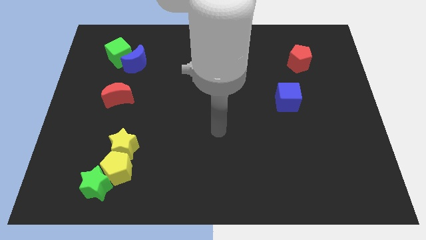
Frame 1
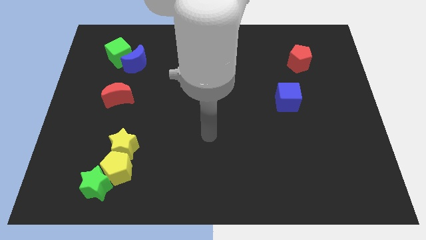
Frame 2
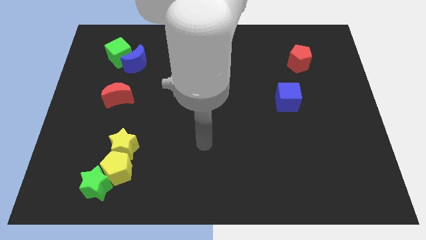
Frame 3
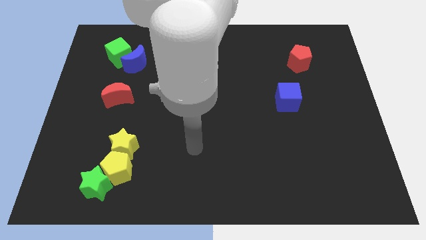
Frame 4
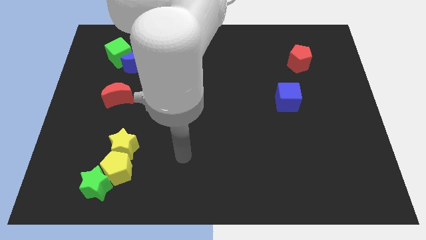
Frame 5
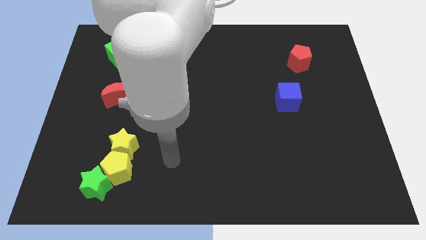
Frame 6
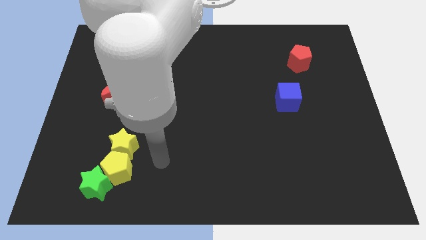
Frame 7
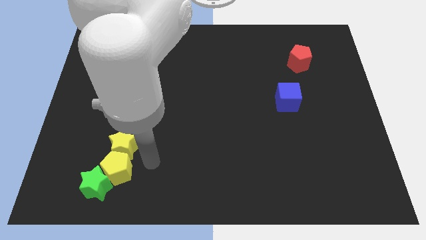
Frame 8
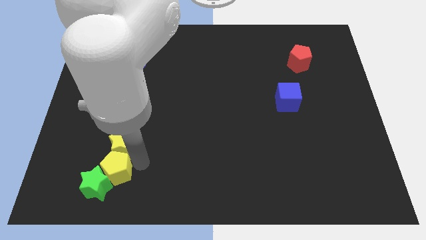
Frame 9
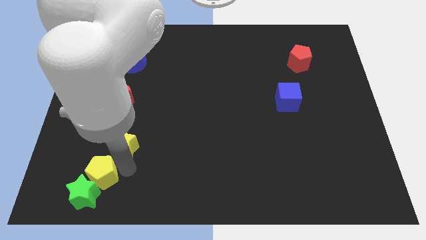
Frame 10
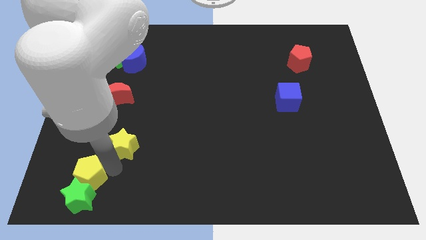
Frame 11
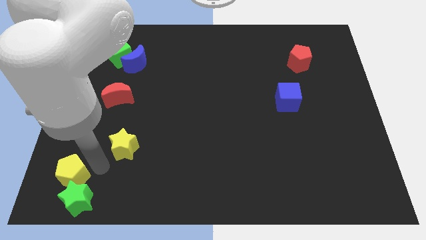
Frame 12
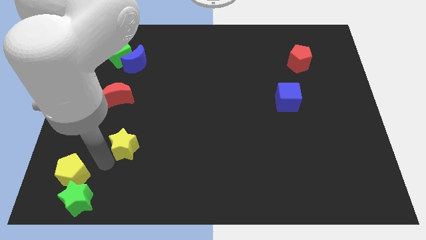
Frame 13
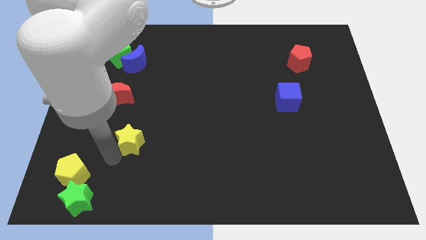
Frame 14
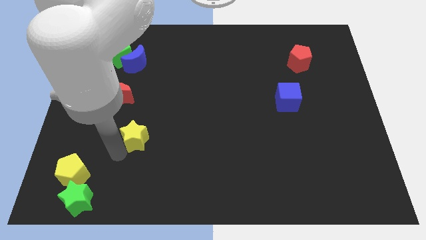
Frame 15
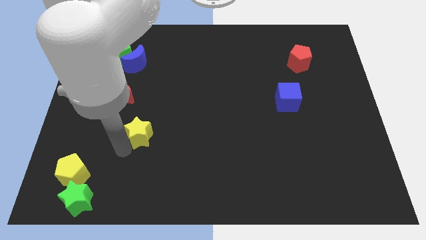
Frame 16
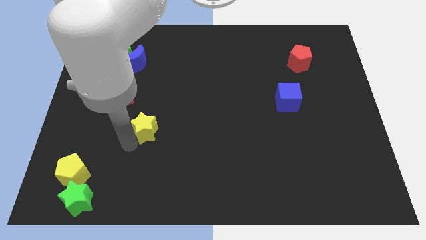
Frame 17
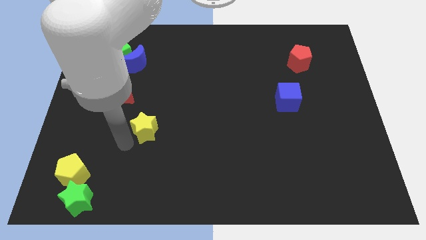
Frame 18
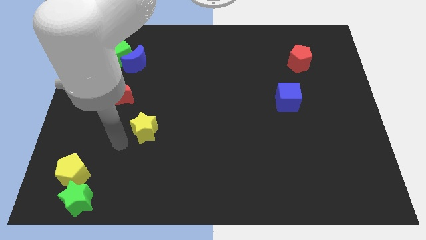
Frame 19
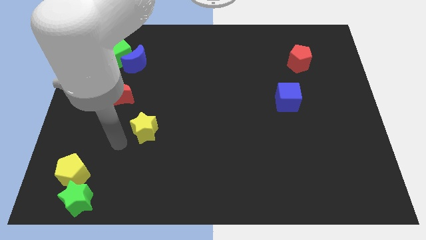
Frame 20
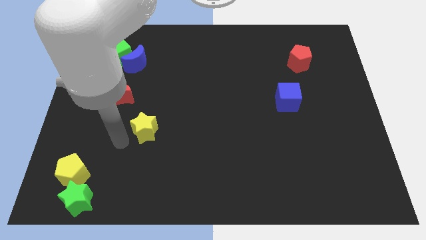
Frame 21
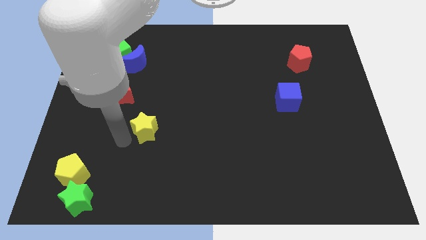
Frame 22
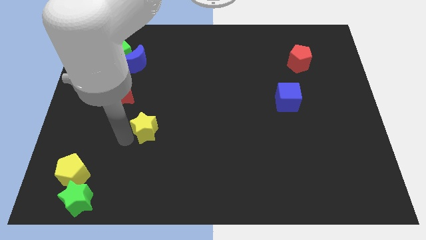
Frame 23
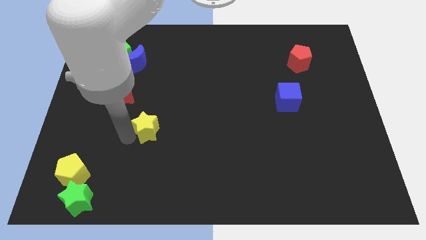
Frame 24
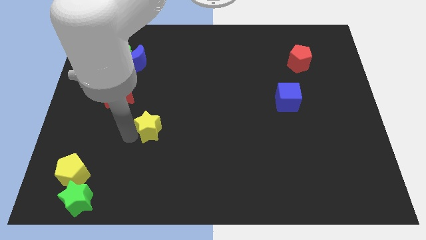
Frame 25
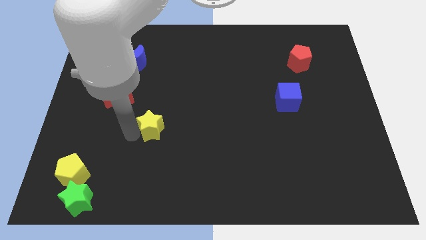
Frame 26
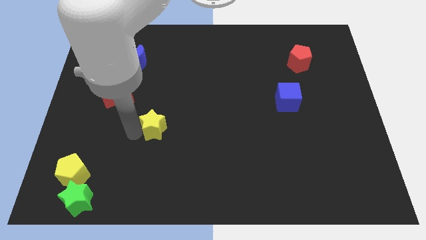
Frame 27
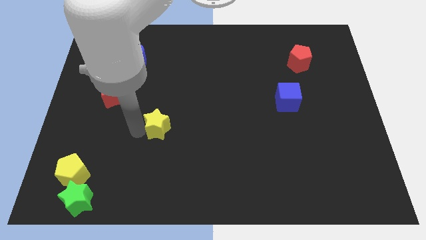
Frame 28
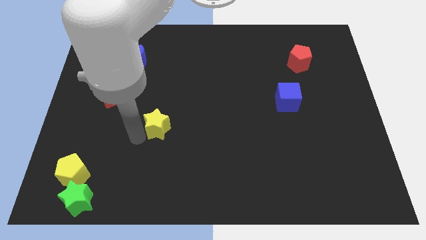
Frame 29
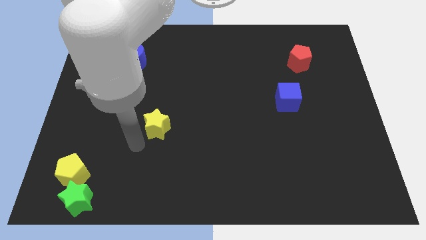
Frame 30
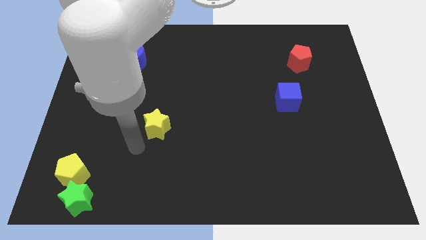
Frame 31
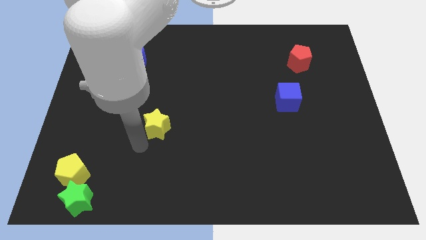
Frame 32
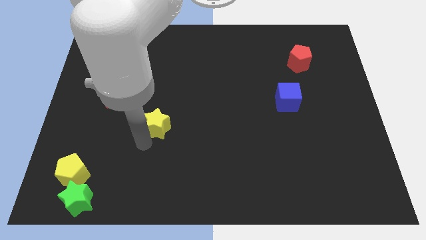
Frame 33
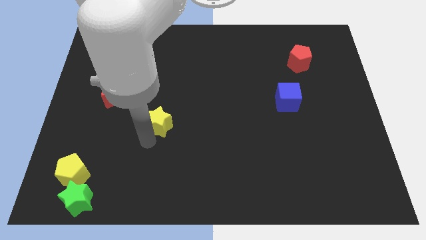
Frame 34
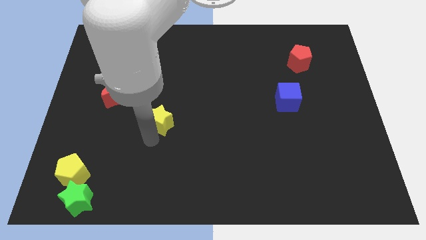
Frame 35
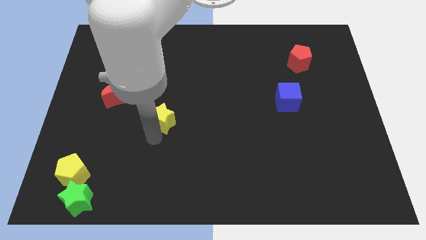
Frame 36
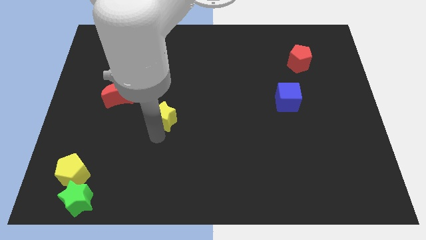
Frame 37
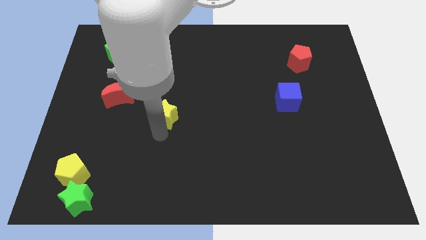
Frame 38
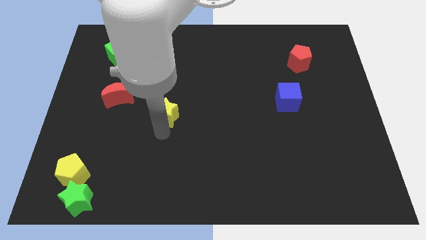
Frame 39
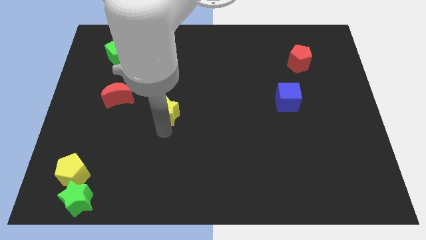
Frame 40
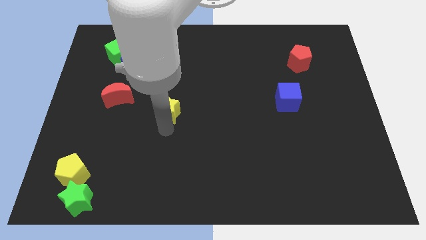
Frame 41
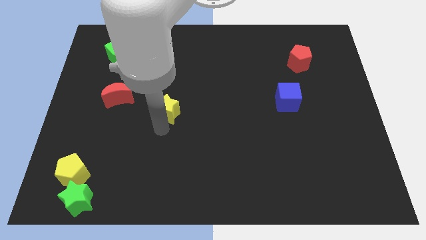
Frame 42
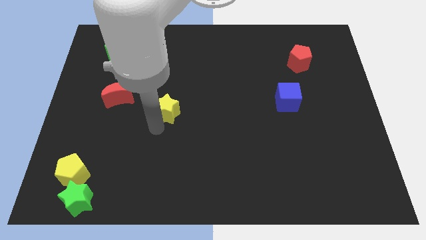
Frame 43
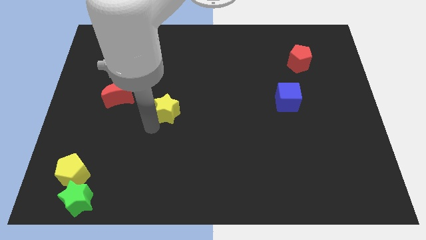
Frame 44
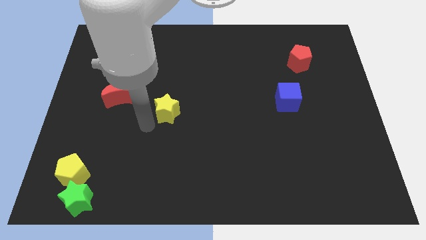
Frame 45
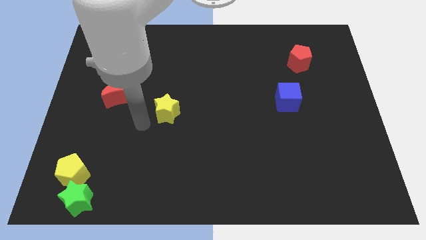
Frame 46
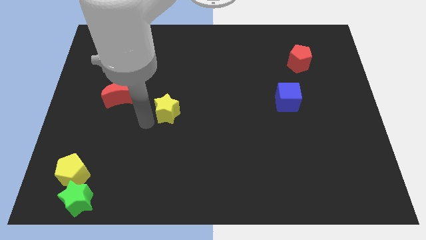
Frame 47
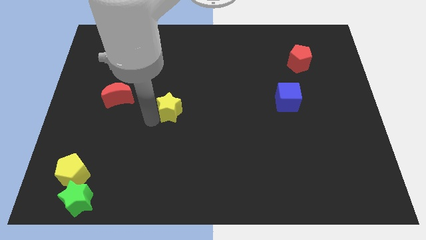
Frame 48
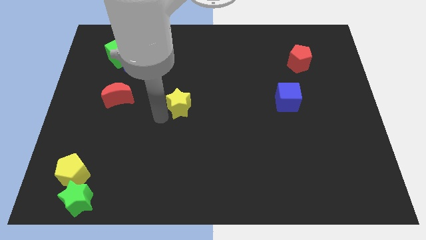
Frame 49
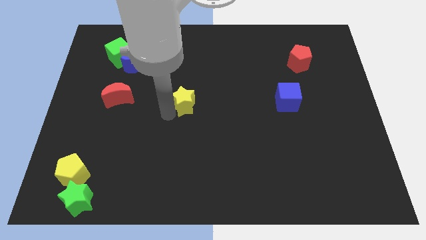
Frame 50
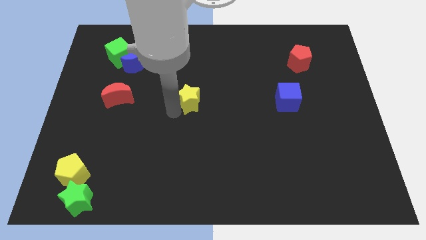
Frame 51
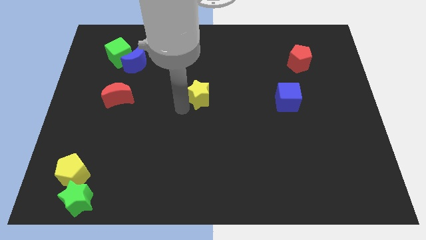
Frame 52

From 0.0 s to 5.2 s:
push the yellow star up and then right

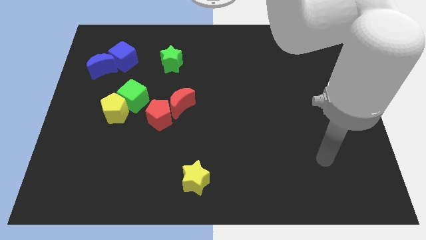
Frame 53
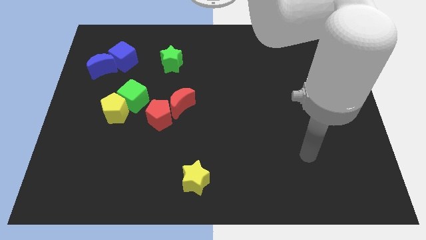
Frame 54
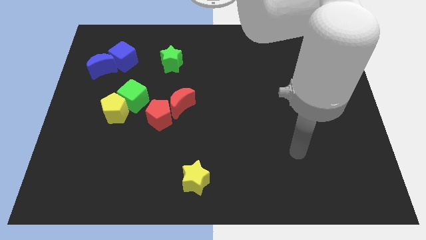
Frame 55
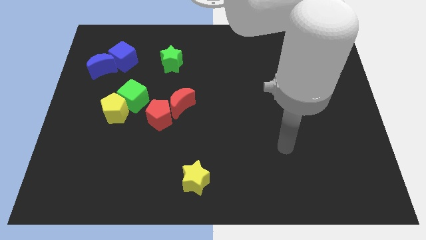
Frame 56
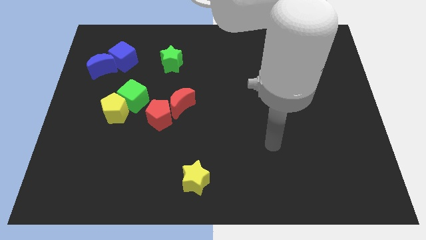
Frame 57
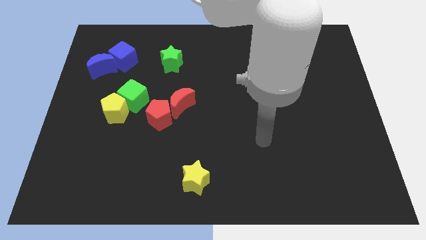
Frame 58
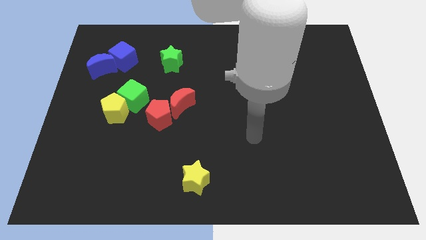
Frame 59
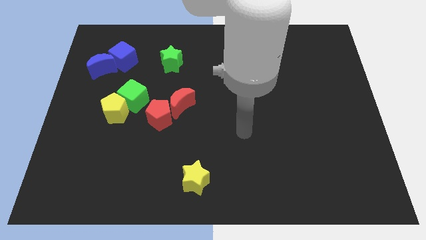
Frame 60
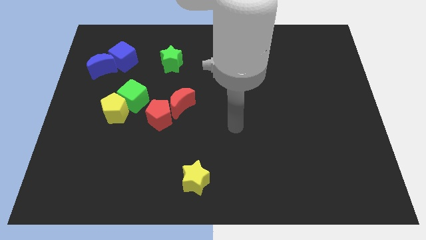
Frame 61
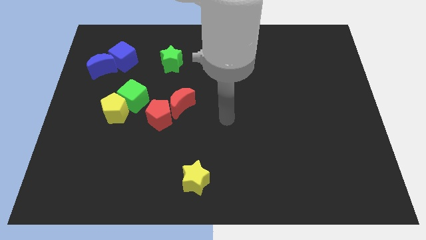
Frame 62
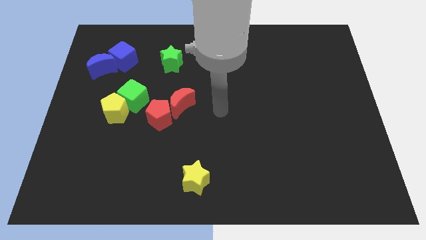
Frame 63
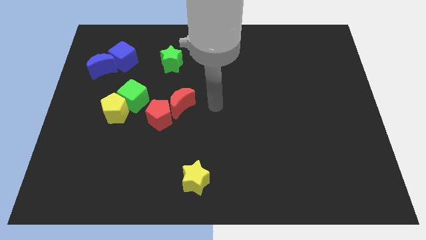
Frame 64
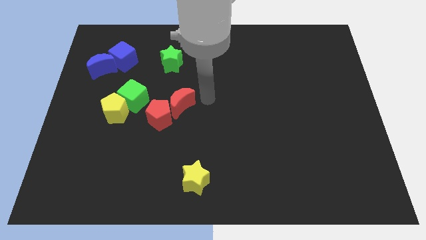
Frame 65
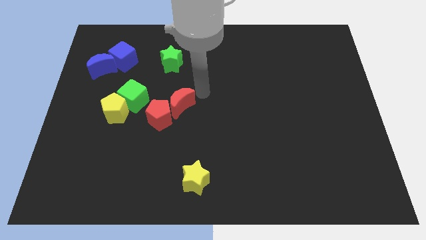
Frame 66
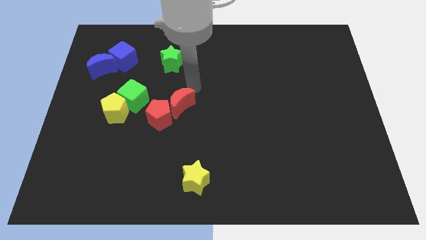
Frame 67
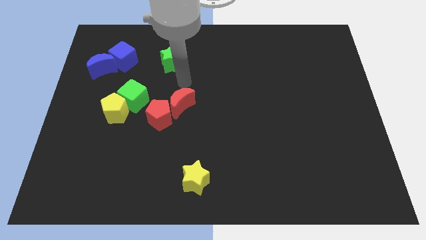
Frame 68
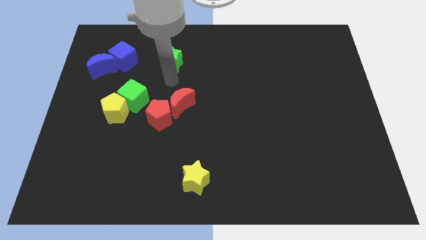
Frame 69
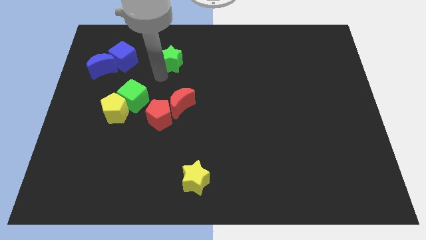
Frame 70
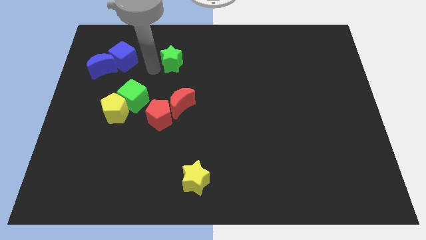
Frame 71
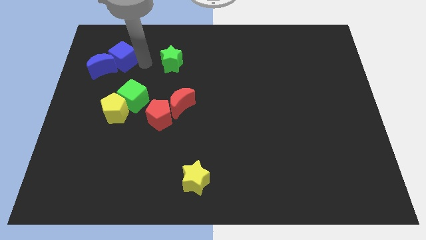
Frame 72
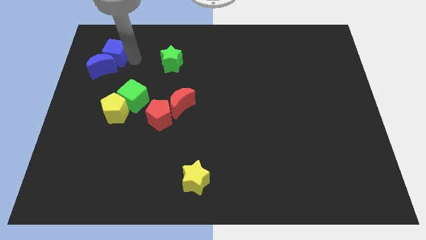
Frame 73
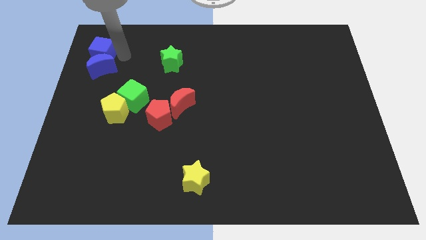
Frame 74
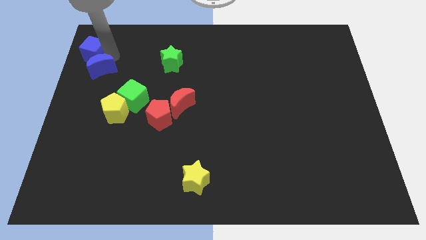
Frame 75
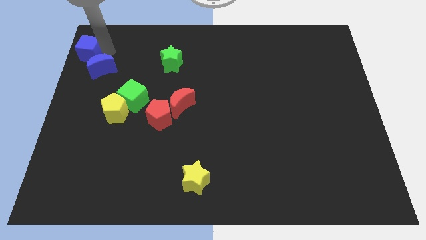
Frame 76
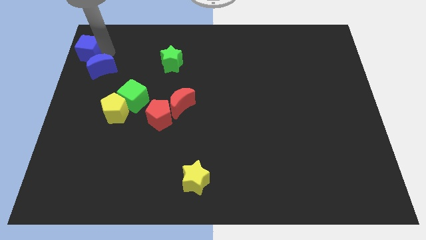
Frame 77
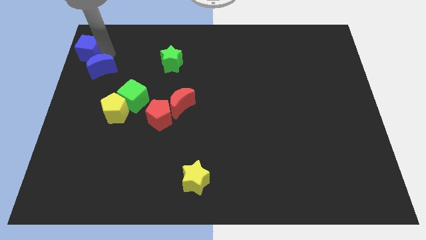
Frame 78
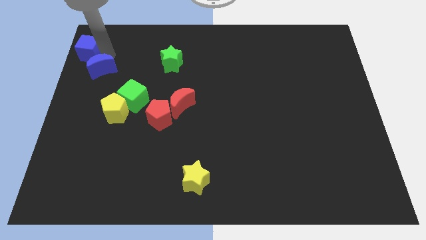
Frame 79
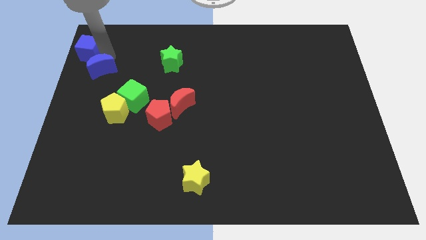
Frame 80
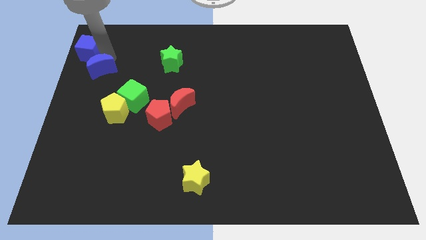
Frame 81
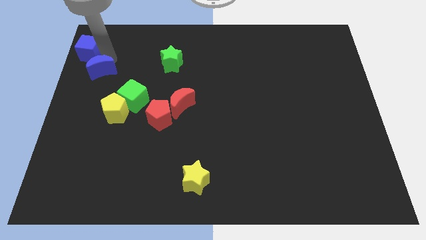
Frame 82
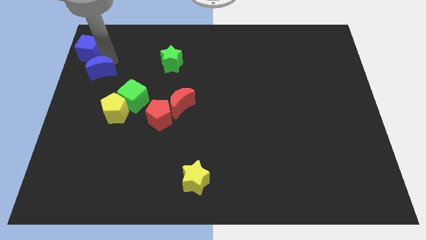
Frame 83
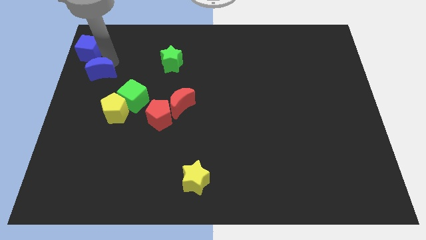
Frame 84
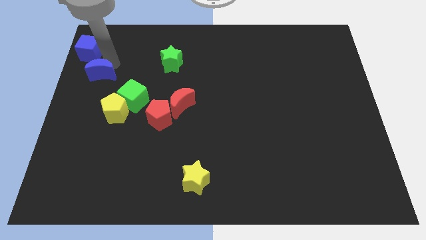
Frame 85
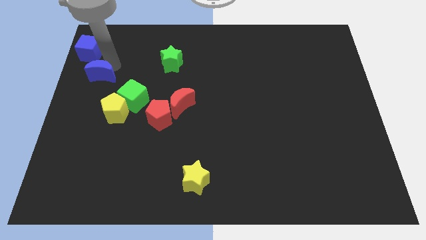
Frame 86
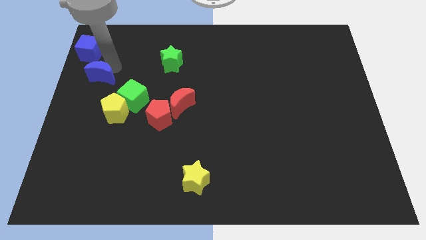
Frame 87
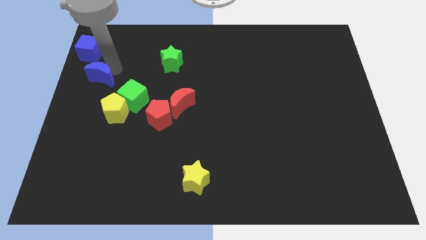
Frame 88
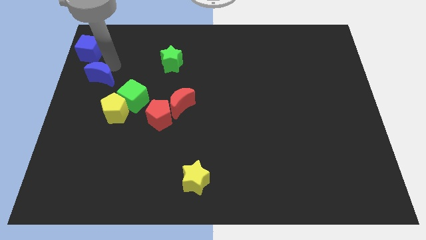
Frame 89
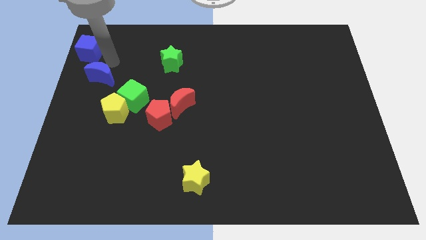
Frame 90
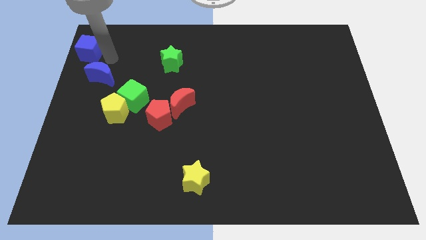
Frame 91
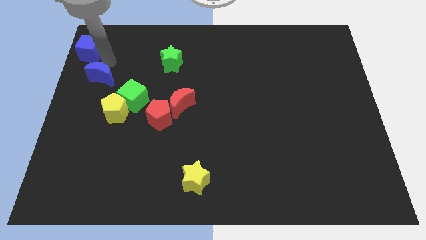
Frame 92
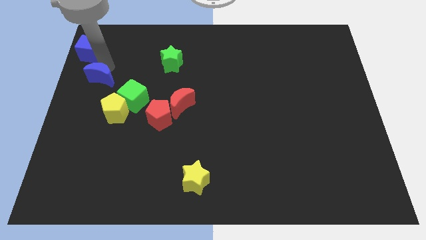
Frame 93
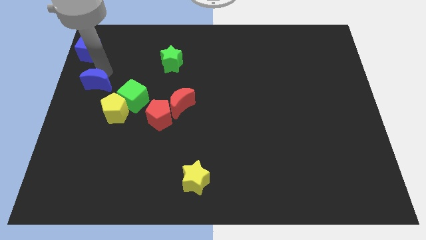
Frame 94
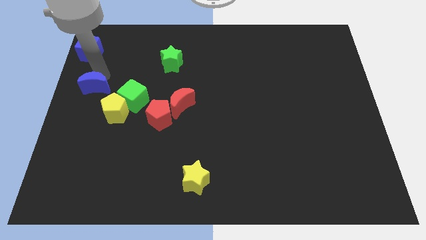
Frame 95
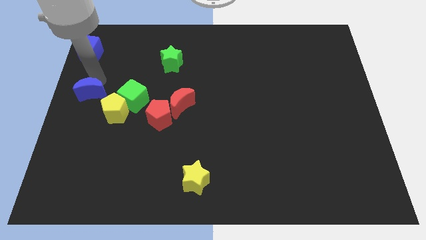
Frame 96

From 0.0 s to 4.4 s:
move the blue moon a little bit down
